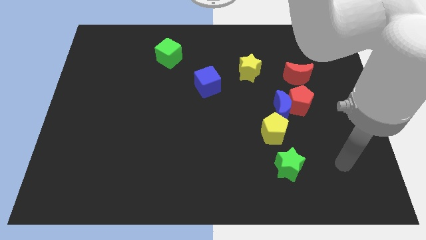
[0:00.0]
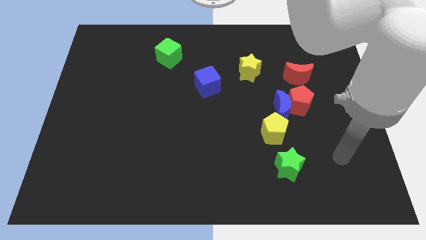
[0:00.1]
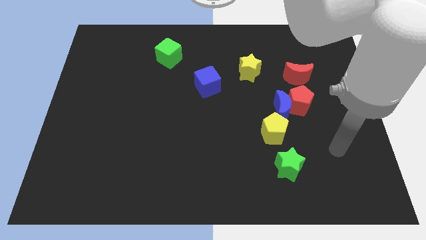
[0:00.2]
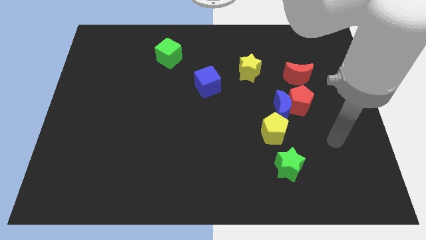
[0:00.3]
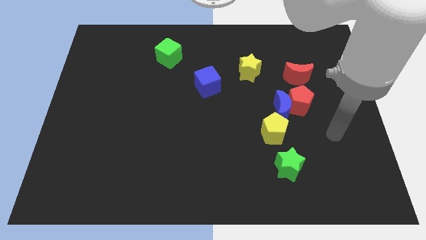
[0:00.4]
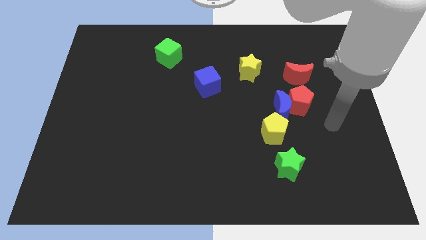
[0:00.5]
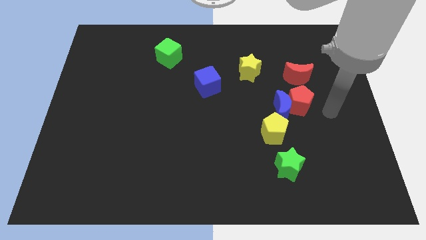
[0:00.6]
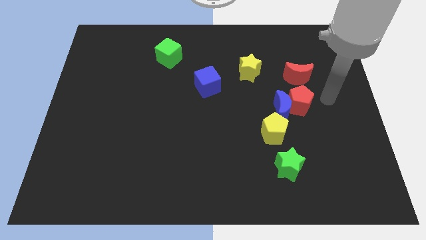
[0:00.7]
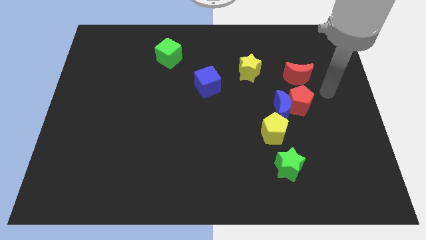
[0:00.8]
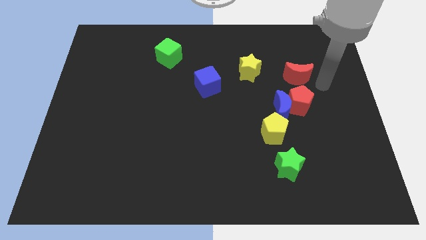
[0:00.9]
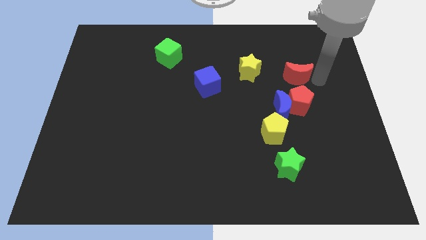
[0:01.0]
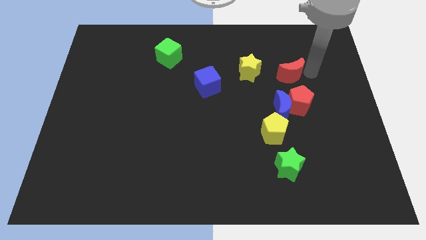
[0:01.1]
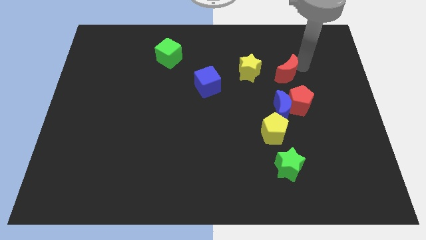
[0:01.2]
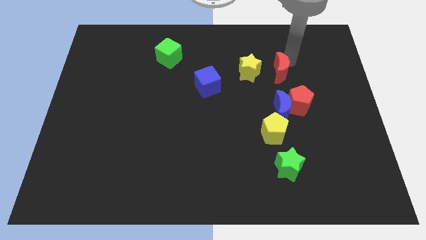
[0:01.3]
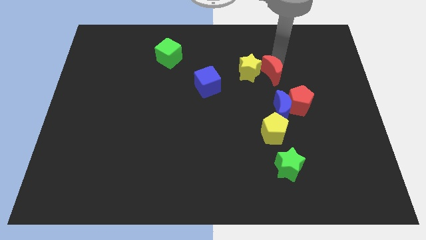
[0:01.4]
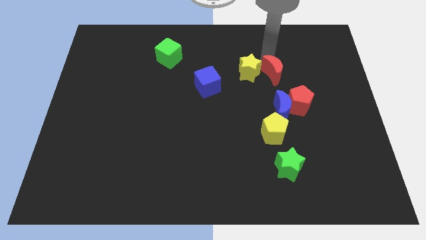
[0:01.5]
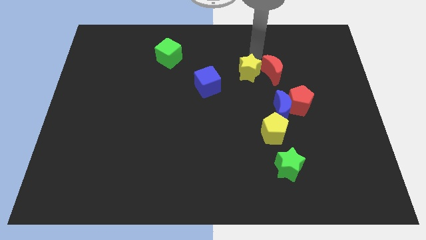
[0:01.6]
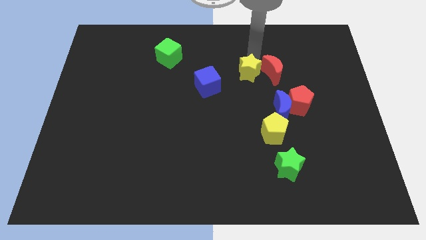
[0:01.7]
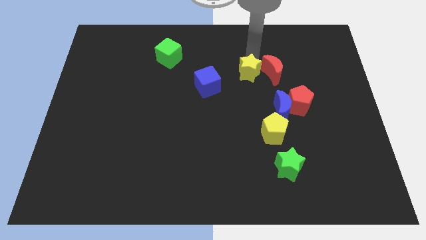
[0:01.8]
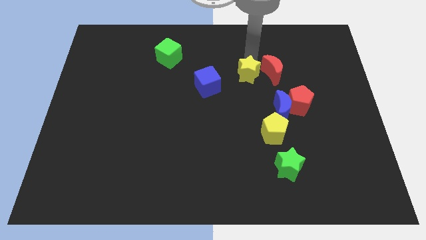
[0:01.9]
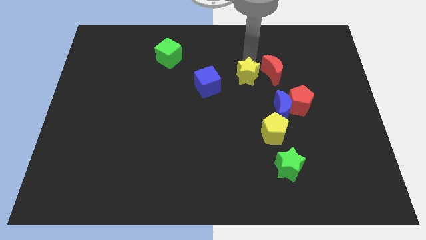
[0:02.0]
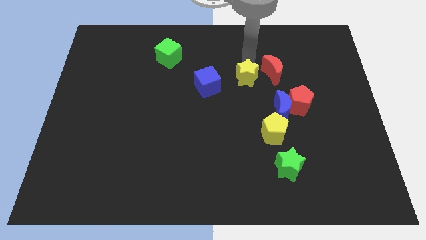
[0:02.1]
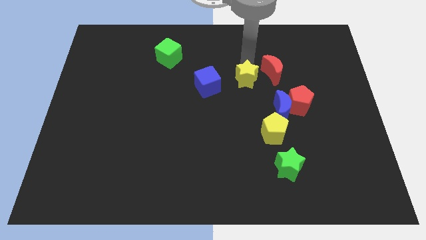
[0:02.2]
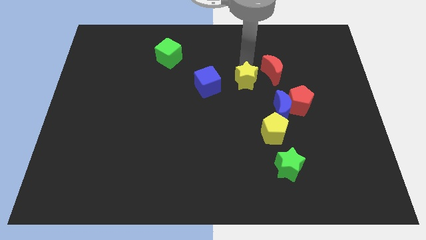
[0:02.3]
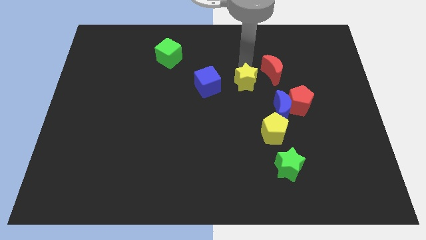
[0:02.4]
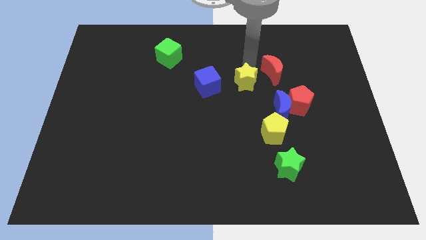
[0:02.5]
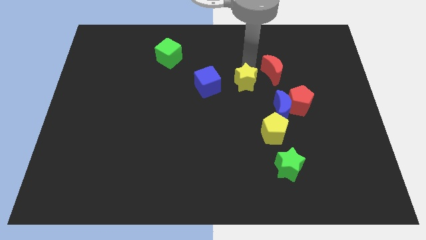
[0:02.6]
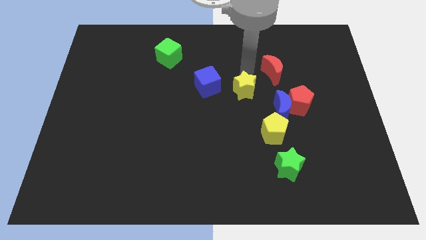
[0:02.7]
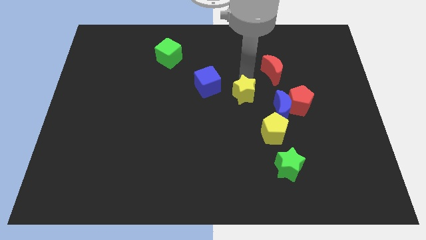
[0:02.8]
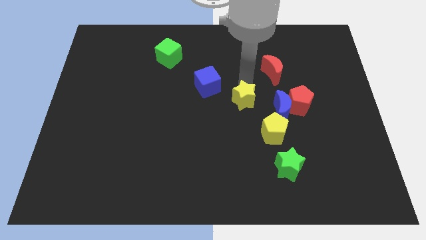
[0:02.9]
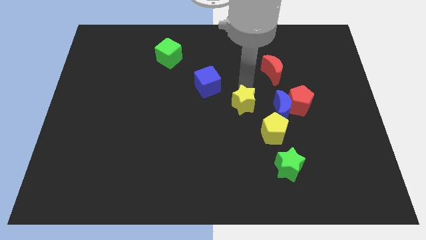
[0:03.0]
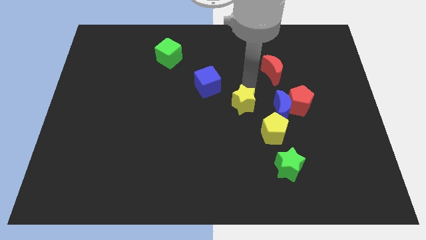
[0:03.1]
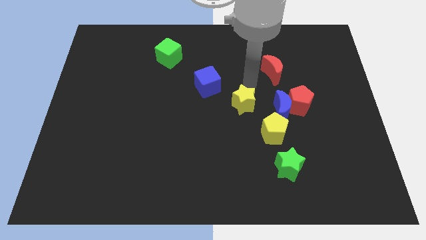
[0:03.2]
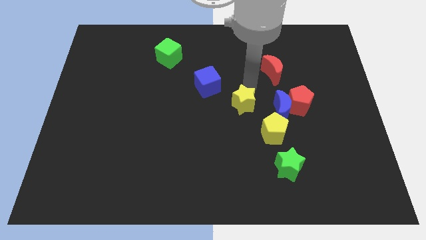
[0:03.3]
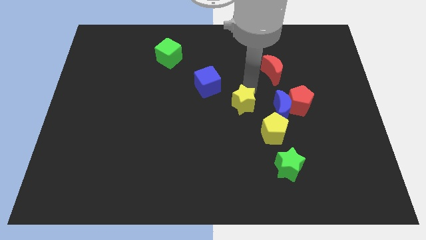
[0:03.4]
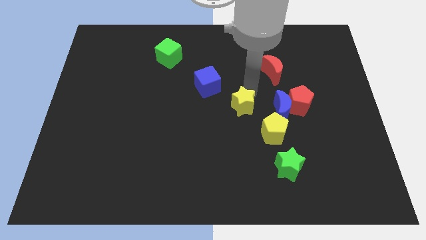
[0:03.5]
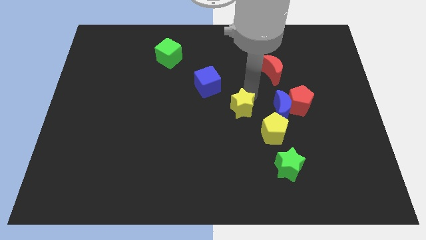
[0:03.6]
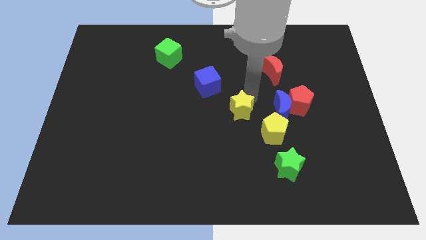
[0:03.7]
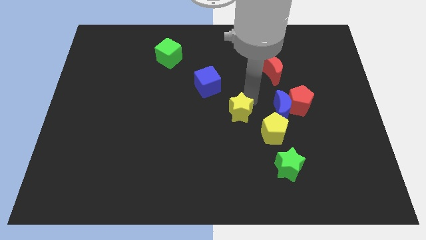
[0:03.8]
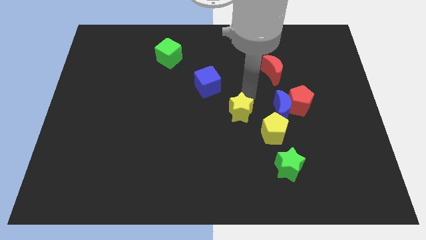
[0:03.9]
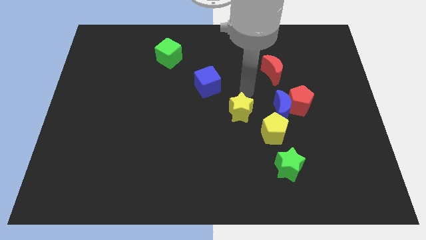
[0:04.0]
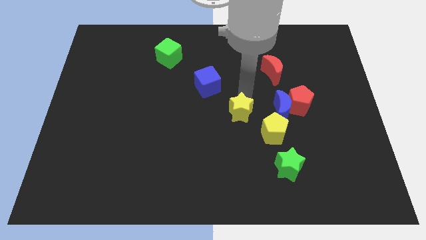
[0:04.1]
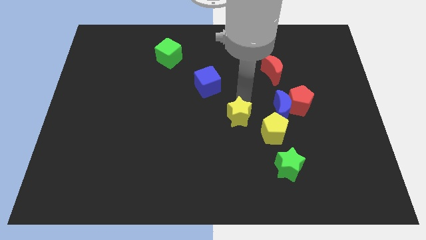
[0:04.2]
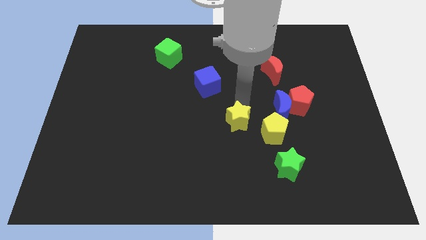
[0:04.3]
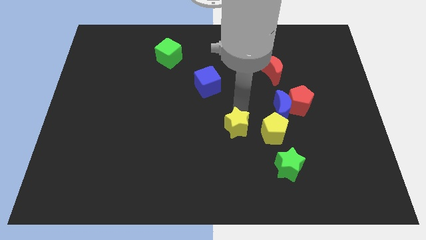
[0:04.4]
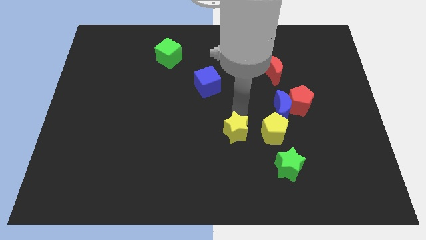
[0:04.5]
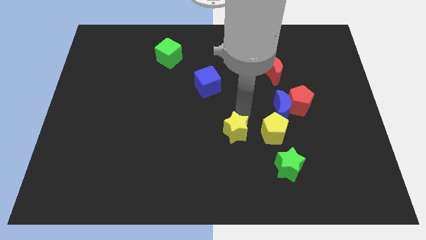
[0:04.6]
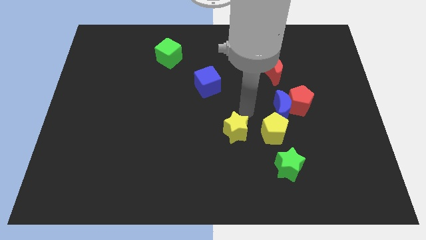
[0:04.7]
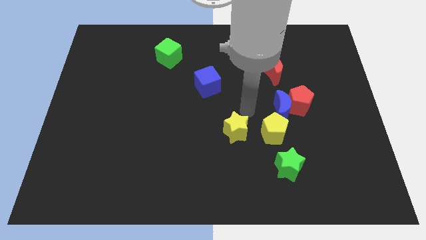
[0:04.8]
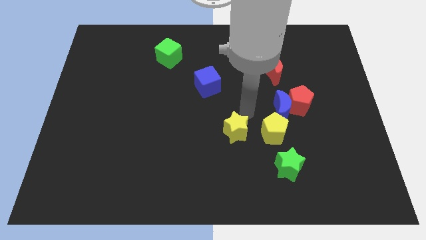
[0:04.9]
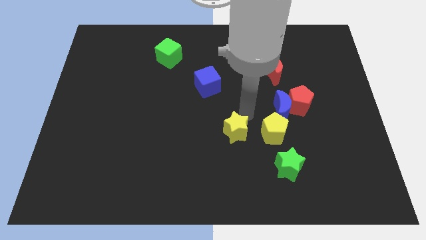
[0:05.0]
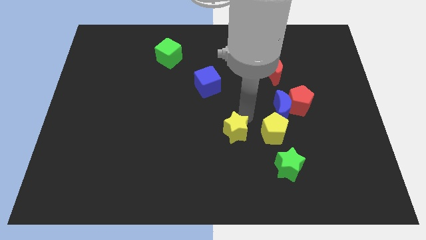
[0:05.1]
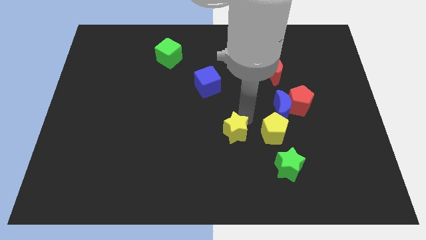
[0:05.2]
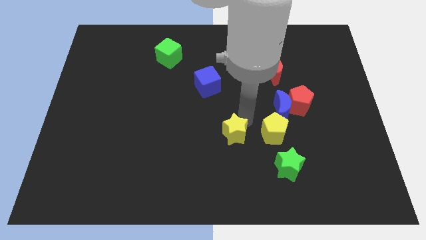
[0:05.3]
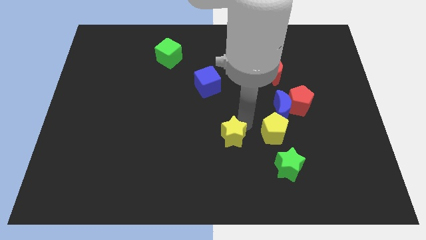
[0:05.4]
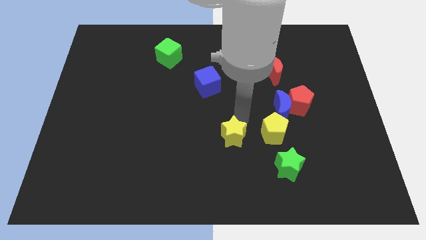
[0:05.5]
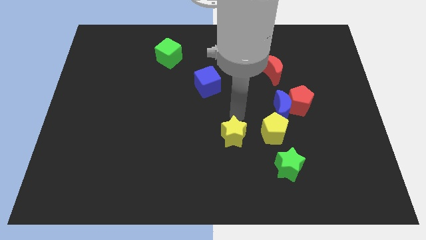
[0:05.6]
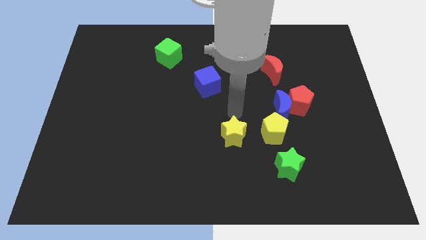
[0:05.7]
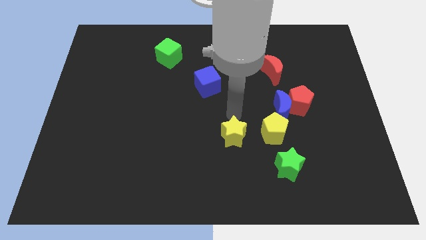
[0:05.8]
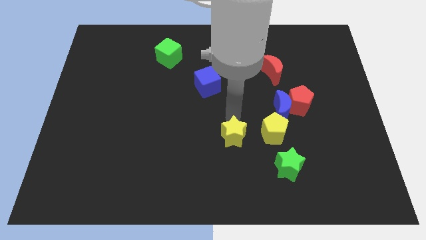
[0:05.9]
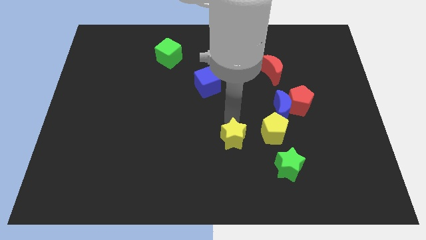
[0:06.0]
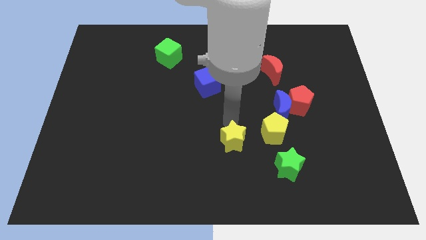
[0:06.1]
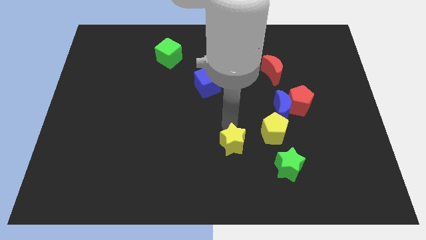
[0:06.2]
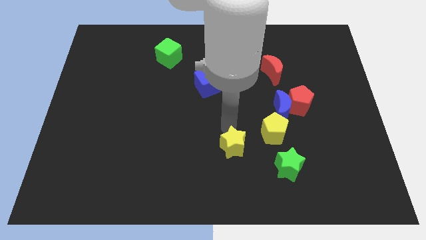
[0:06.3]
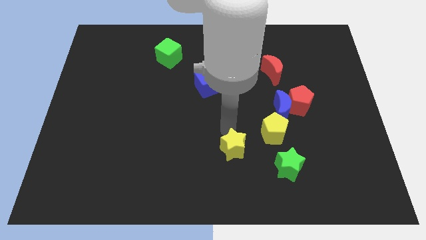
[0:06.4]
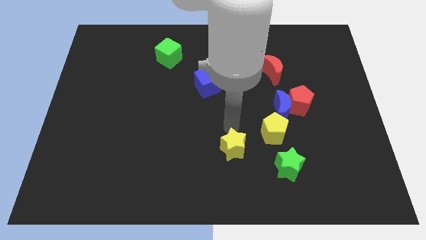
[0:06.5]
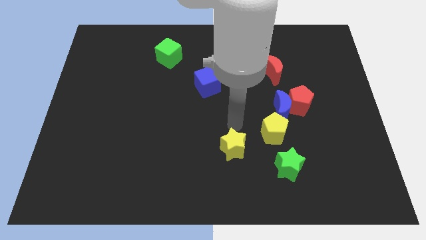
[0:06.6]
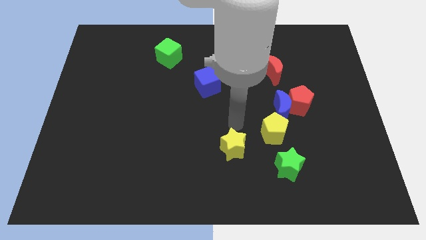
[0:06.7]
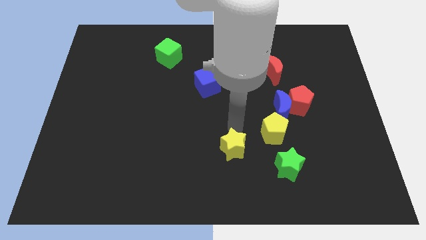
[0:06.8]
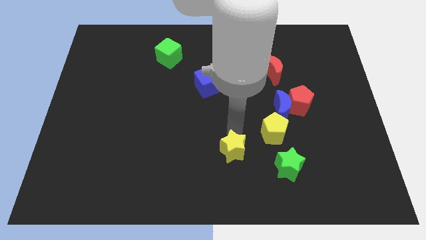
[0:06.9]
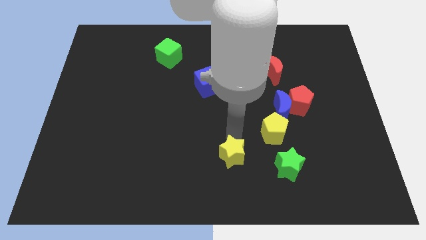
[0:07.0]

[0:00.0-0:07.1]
slide the yellow star to the bottom
